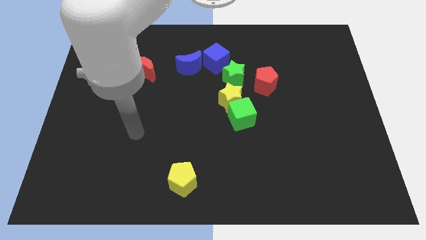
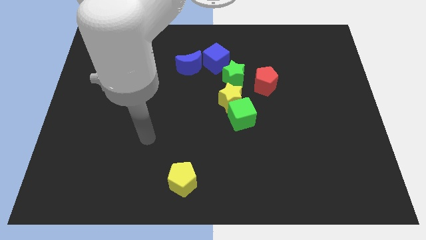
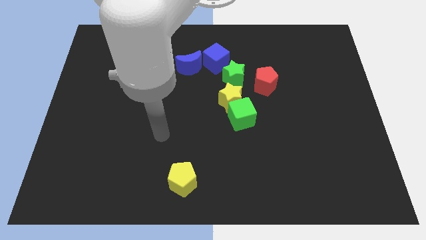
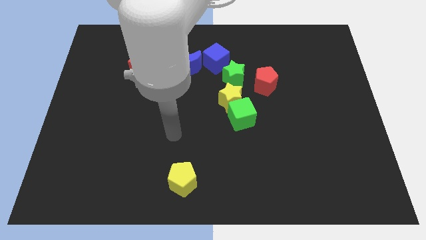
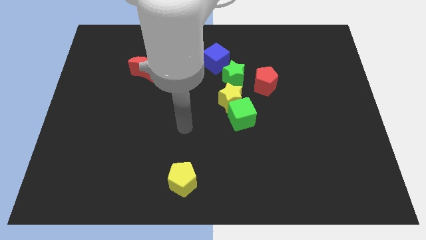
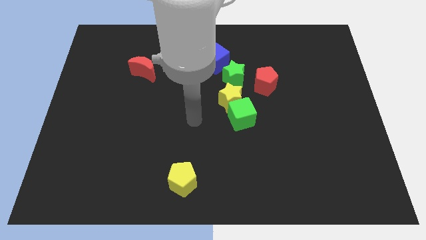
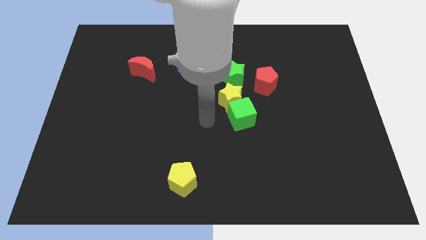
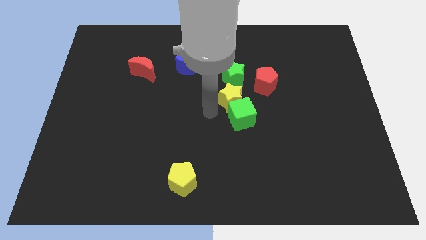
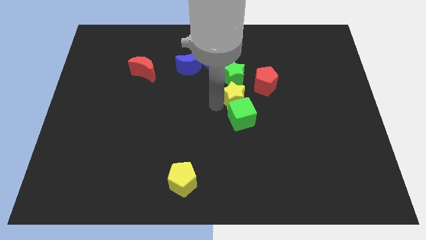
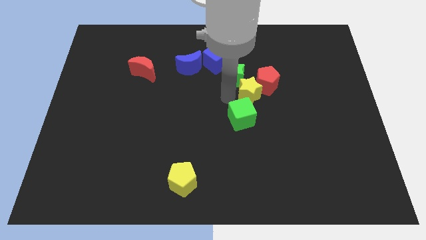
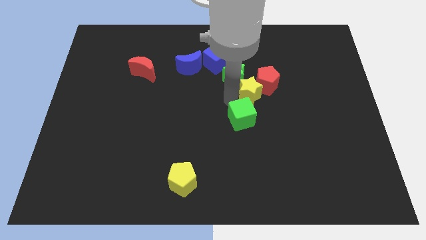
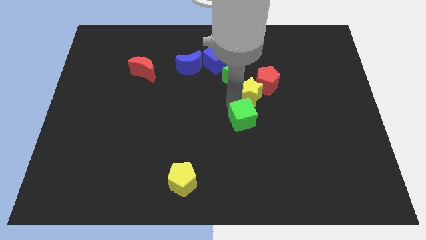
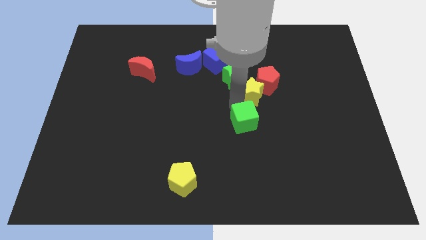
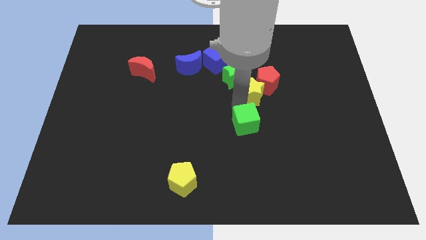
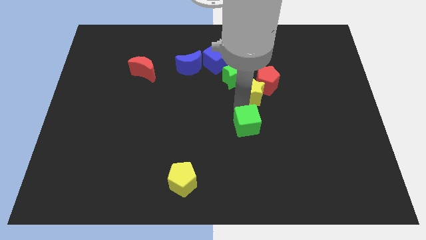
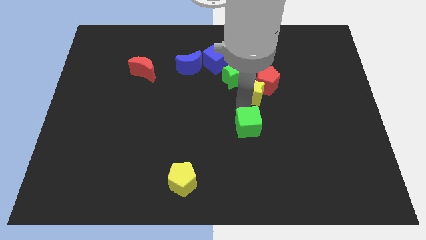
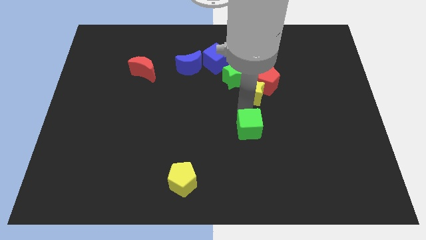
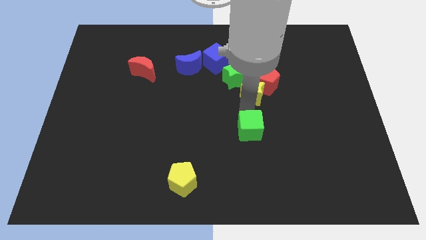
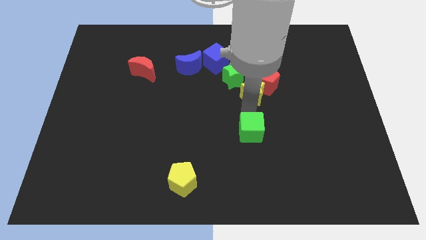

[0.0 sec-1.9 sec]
move the green cube away from the yellow star

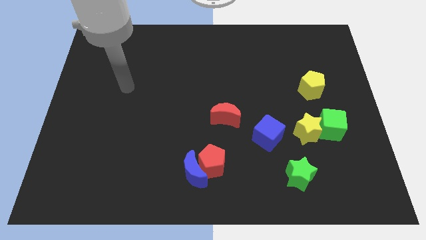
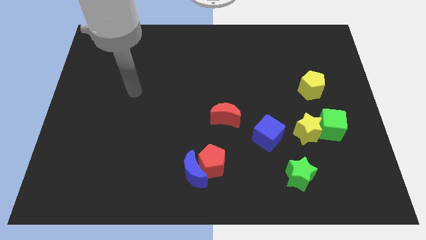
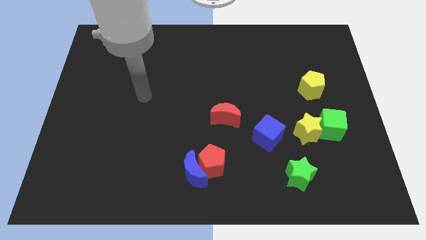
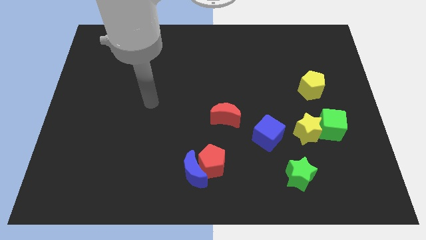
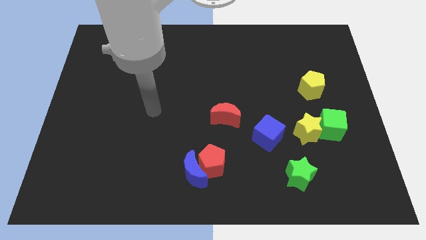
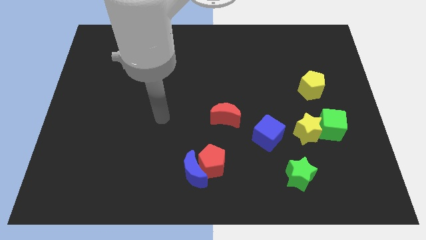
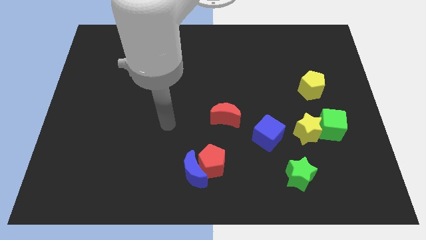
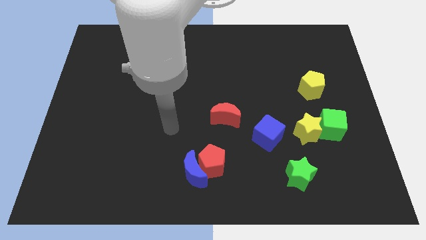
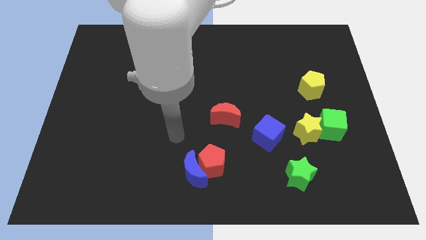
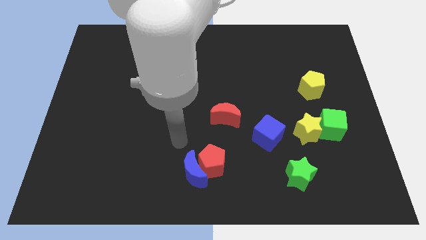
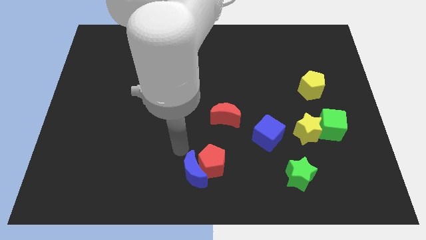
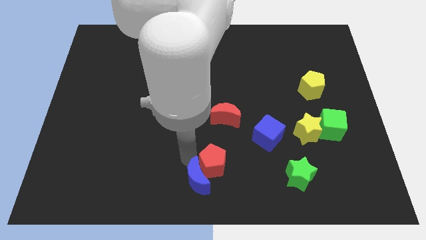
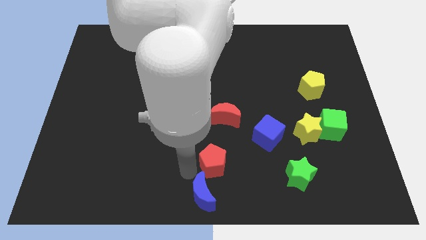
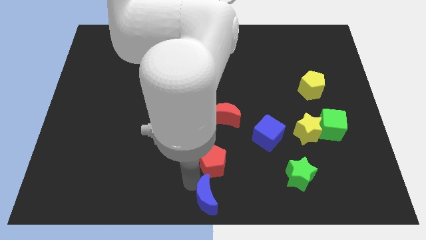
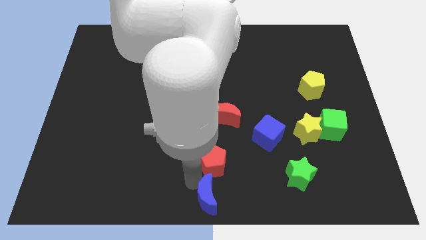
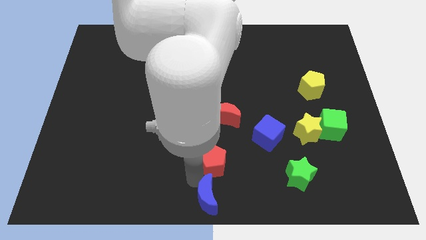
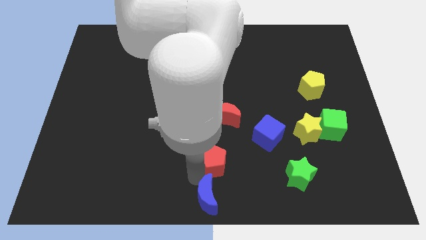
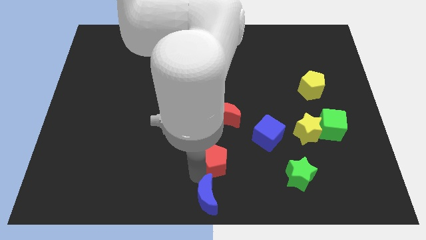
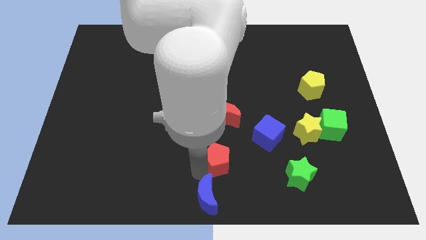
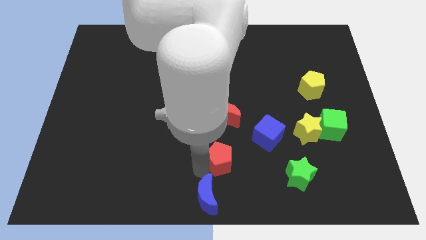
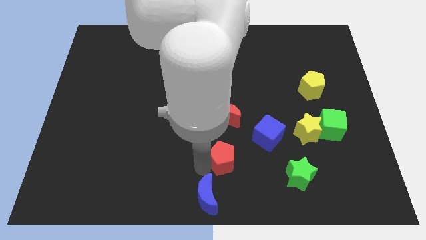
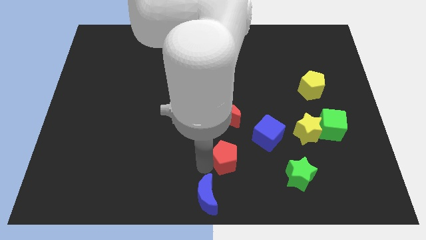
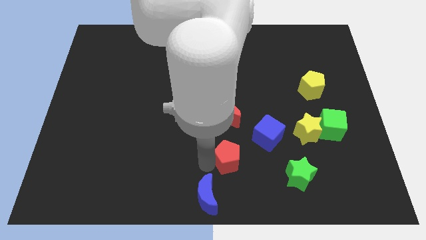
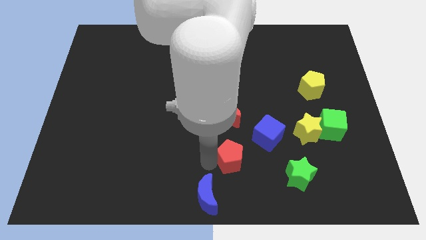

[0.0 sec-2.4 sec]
move the red pentagon away from the blue moon

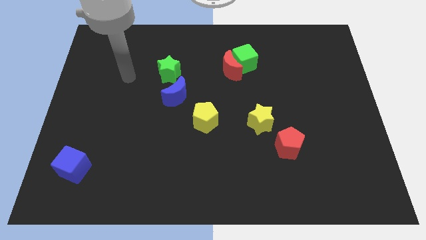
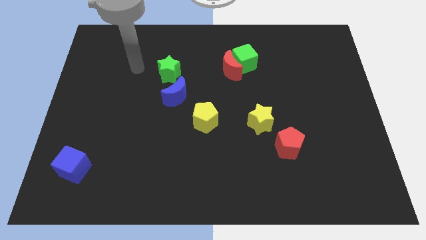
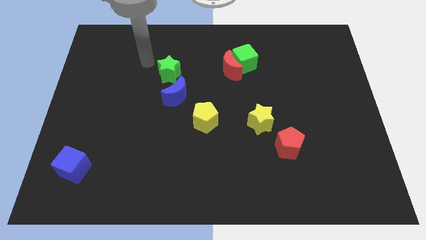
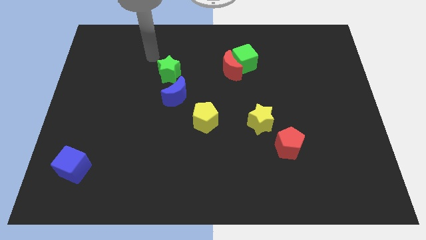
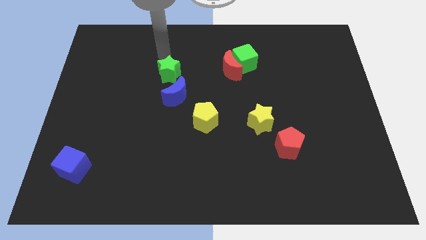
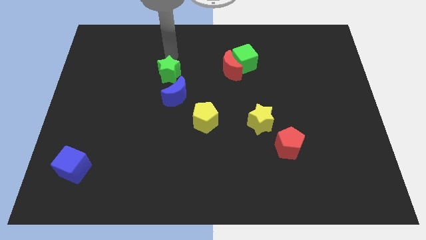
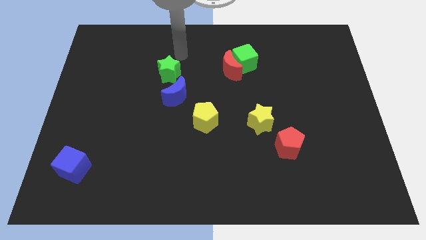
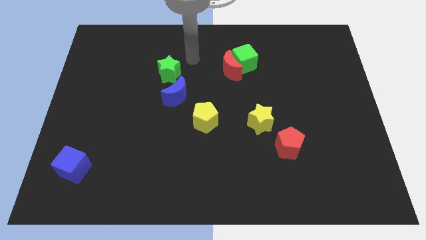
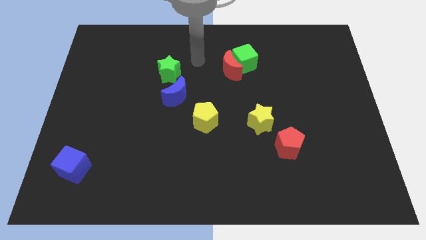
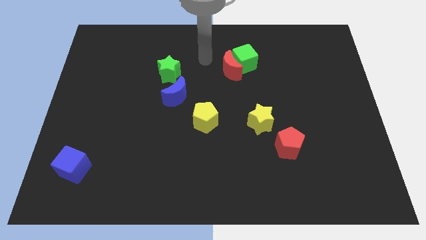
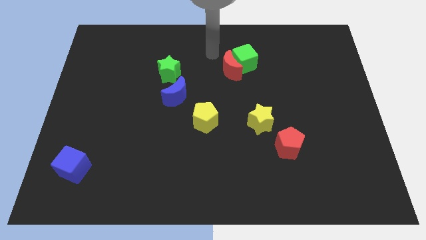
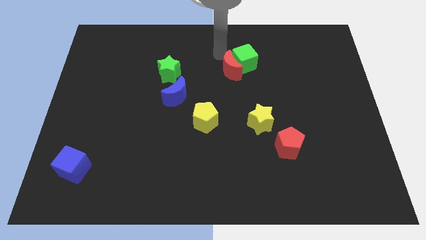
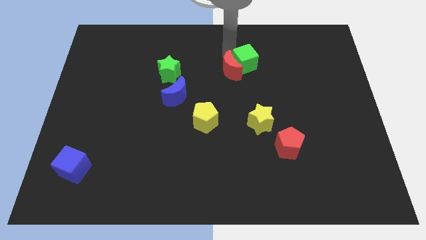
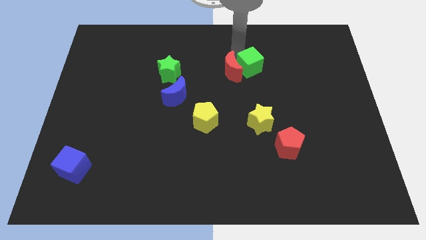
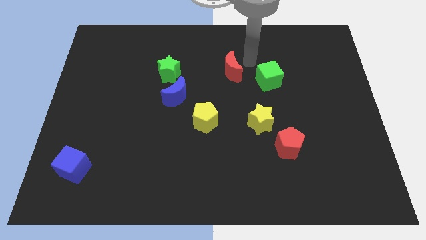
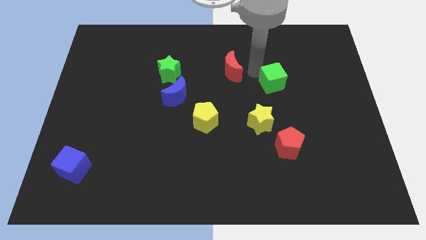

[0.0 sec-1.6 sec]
pull the red moon apart from the green cube

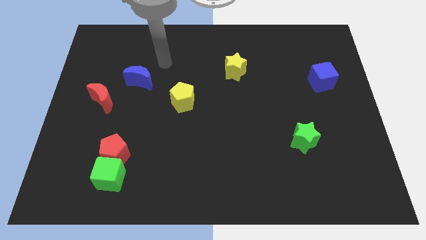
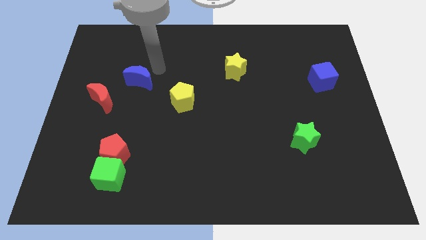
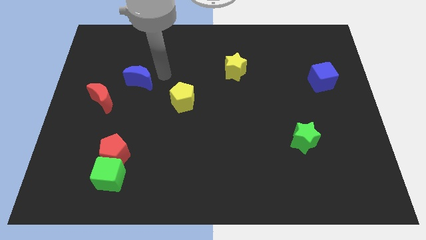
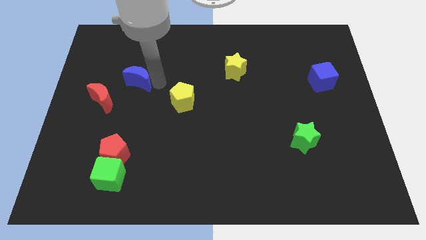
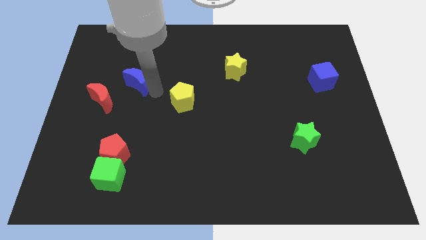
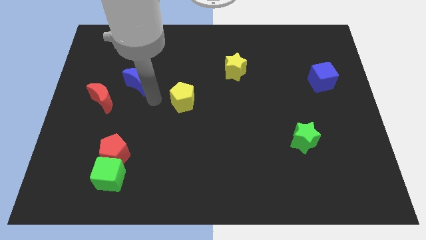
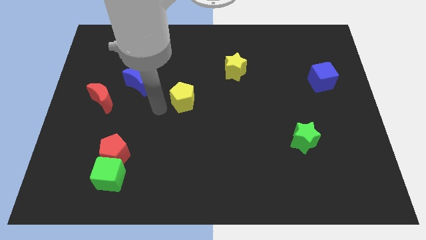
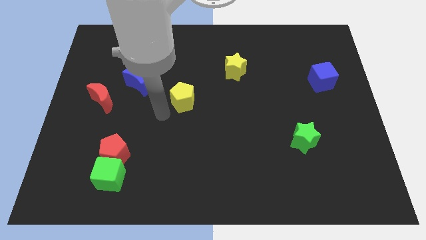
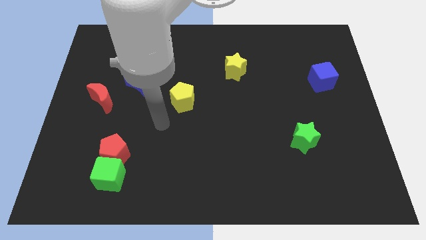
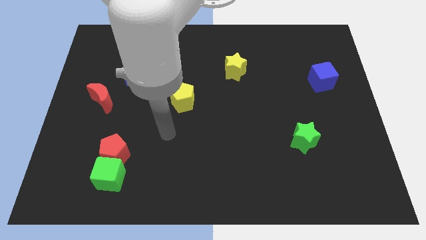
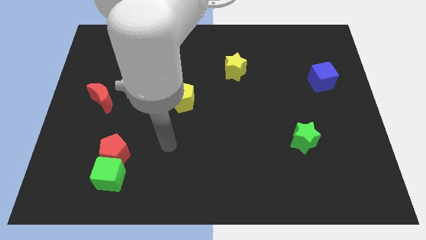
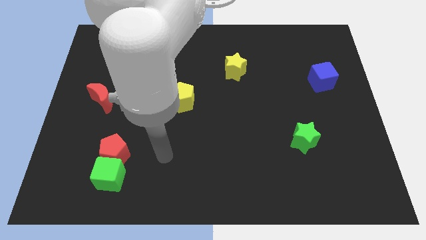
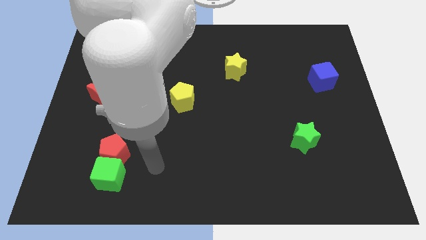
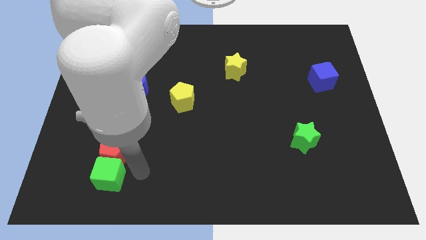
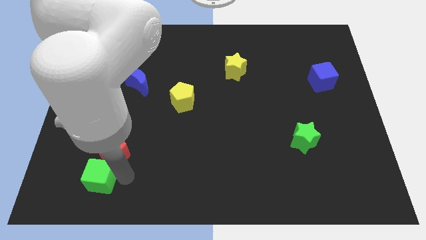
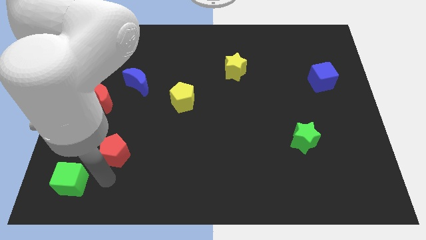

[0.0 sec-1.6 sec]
pull the red pentagon apart from the green cube

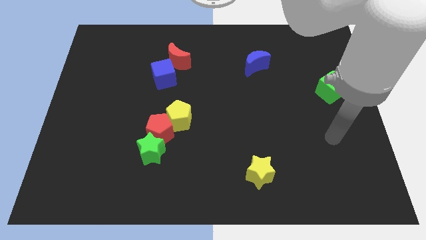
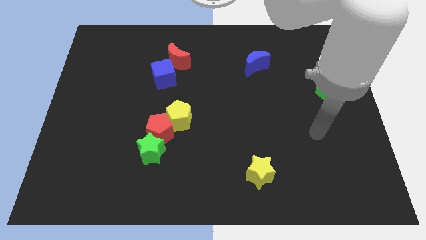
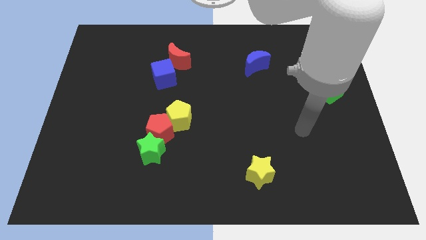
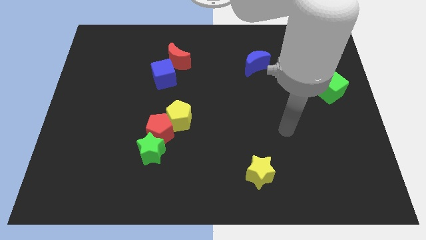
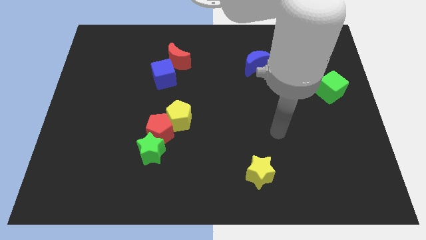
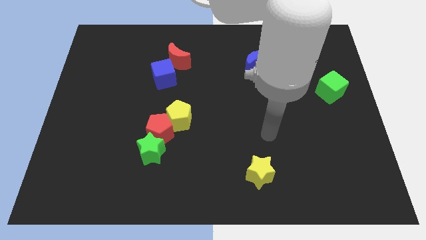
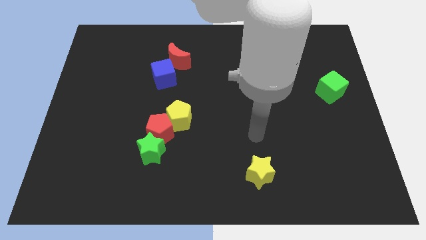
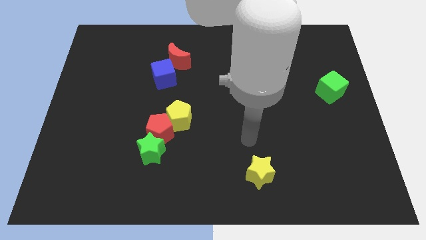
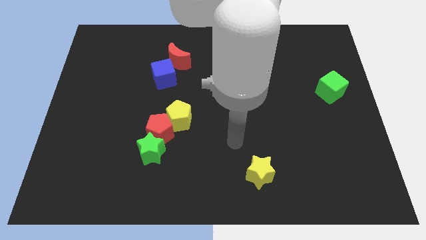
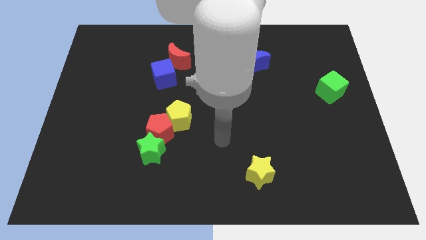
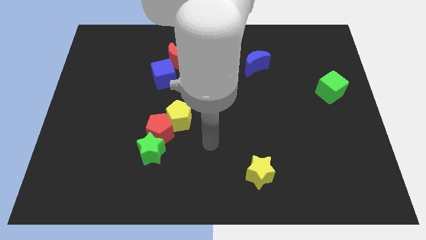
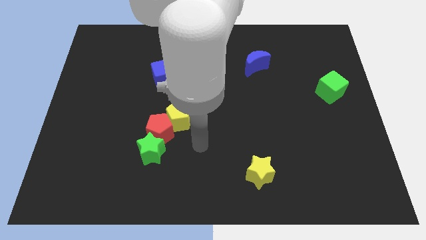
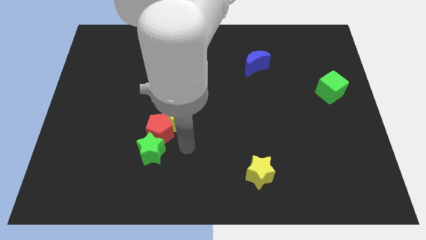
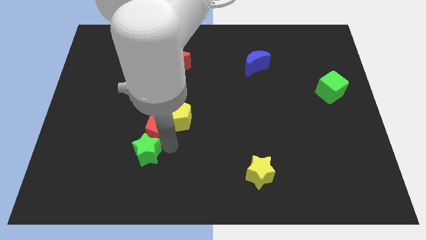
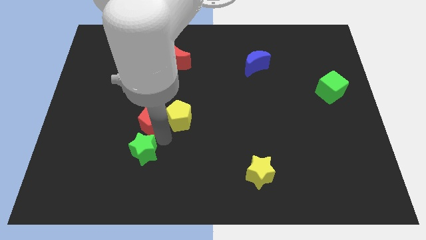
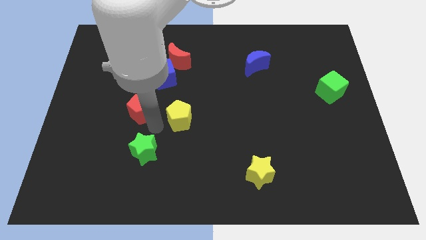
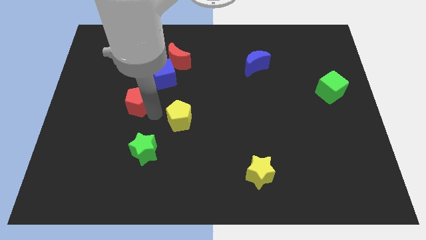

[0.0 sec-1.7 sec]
separate the yellow pentagon from the red pentagon

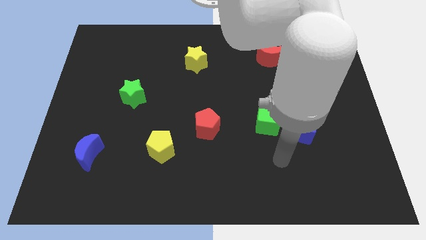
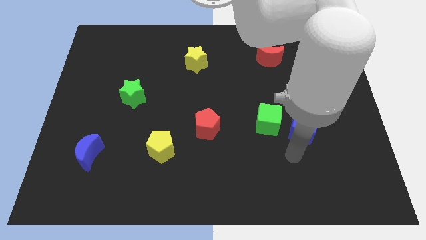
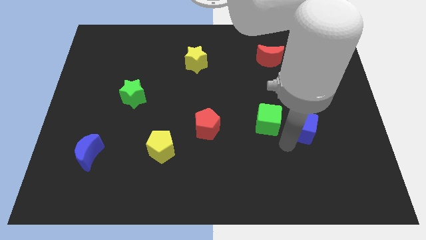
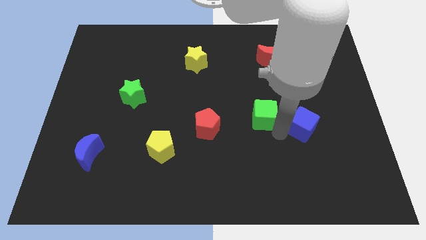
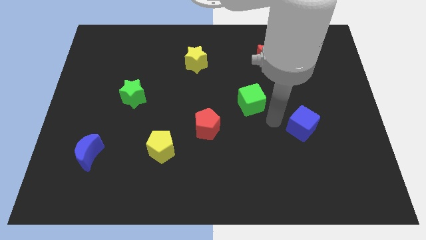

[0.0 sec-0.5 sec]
move the blue cube away from the green cube
